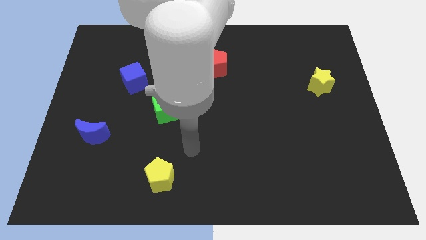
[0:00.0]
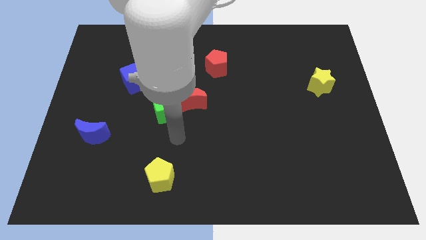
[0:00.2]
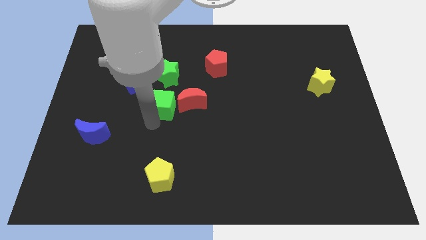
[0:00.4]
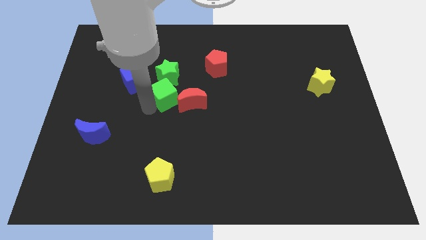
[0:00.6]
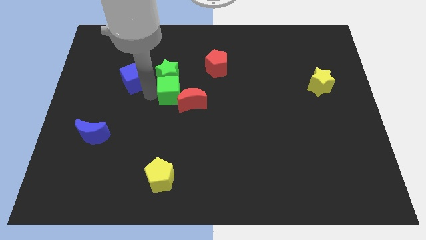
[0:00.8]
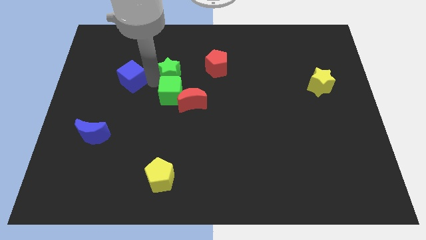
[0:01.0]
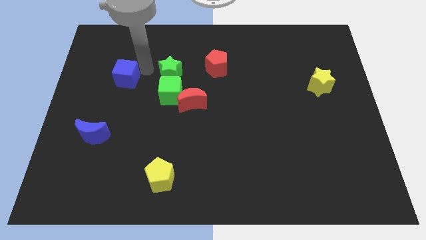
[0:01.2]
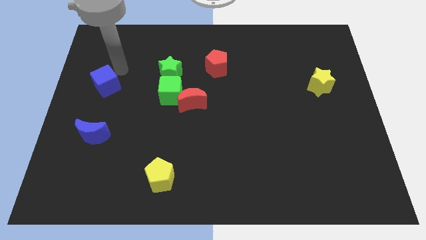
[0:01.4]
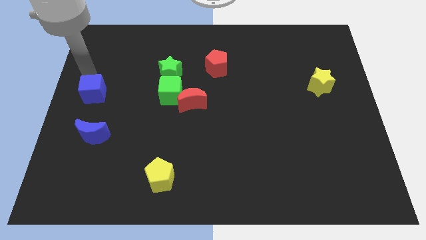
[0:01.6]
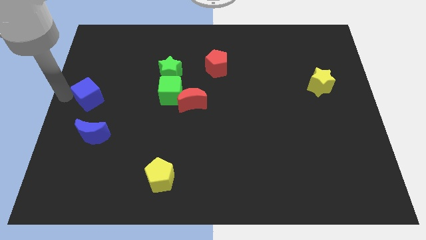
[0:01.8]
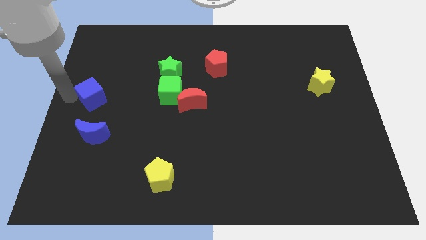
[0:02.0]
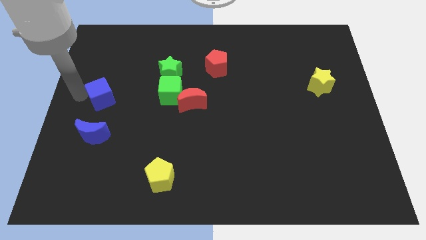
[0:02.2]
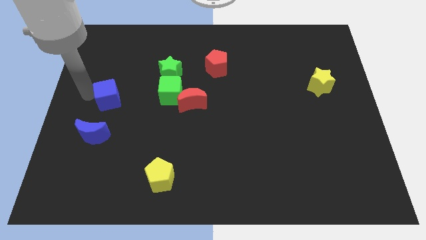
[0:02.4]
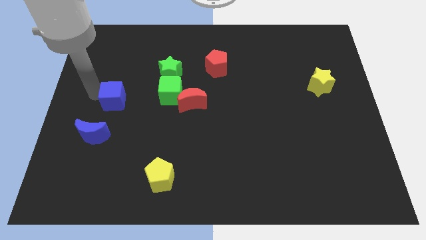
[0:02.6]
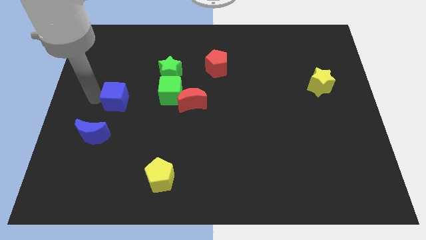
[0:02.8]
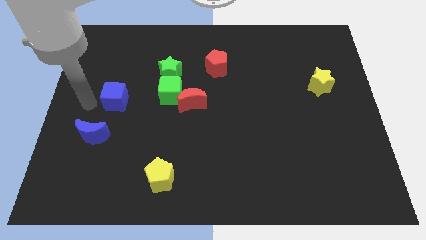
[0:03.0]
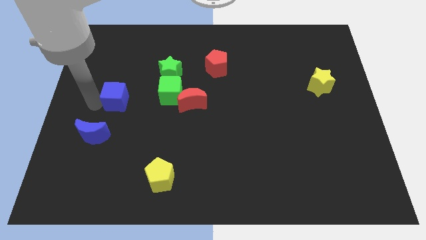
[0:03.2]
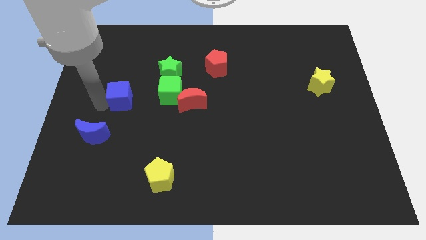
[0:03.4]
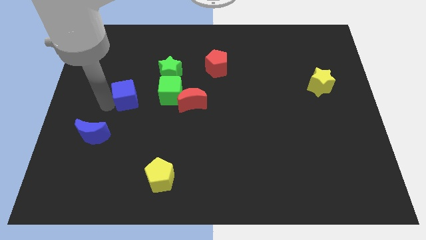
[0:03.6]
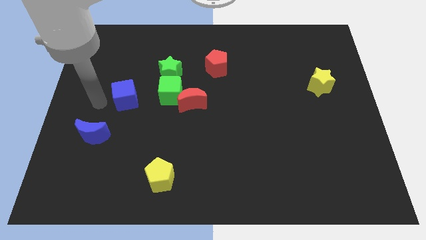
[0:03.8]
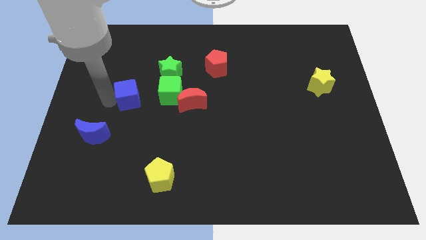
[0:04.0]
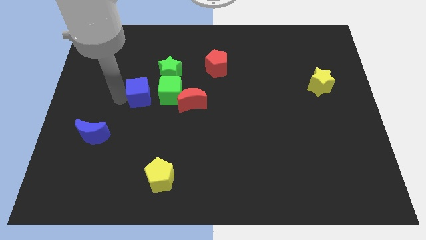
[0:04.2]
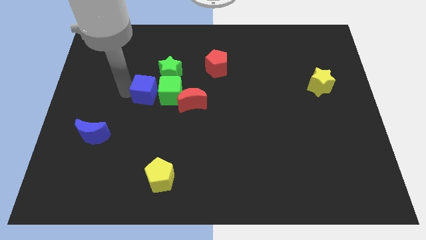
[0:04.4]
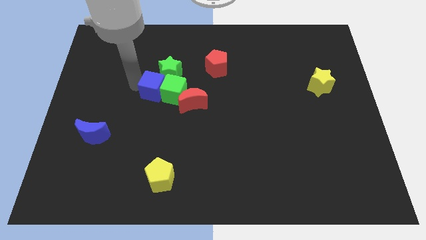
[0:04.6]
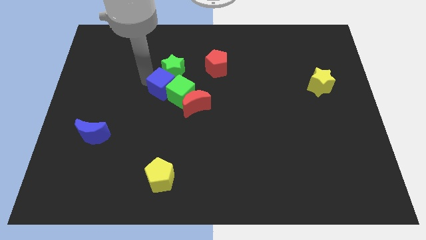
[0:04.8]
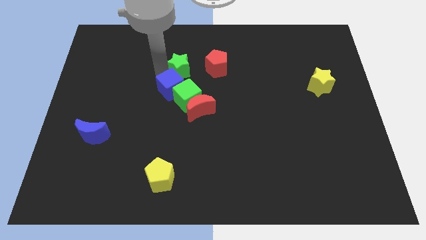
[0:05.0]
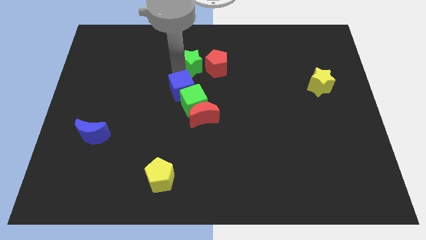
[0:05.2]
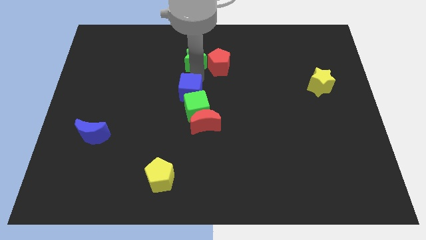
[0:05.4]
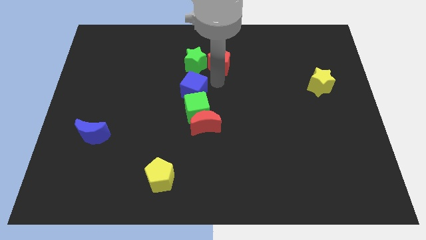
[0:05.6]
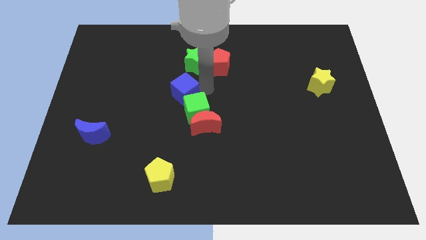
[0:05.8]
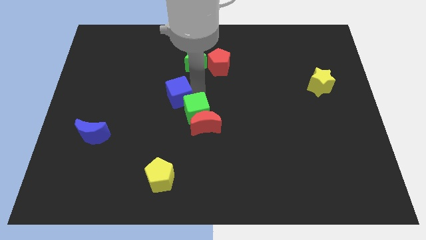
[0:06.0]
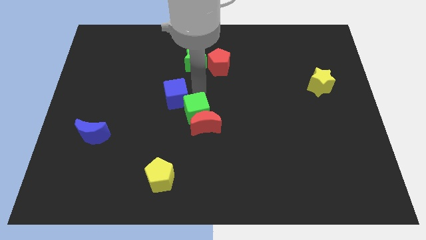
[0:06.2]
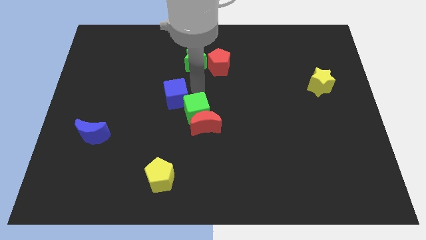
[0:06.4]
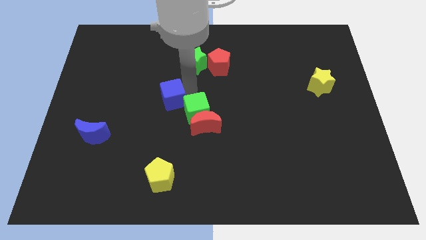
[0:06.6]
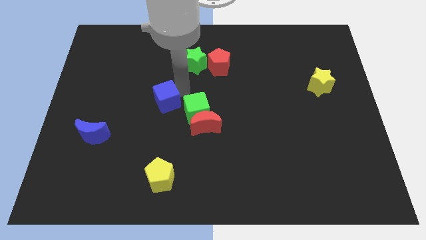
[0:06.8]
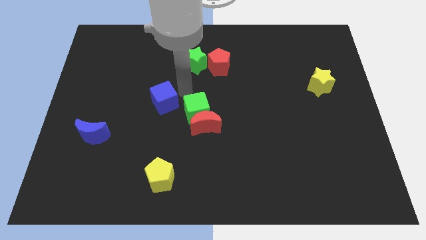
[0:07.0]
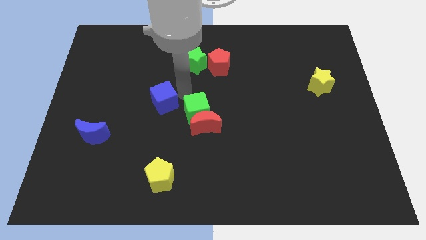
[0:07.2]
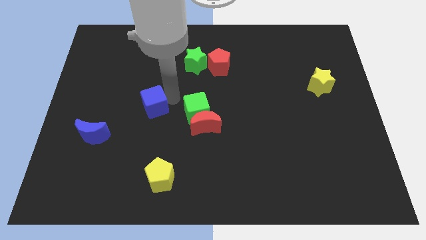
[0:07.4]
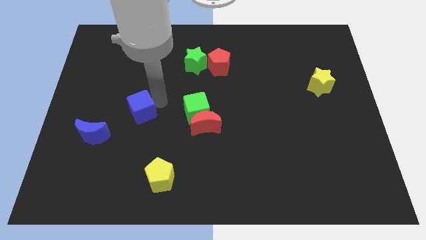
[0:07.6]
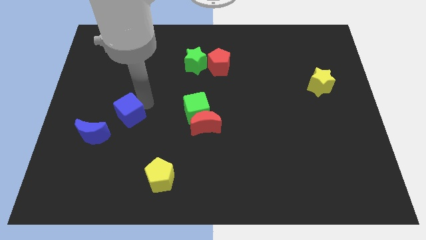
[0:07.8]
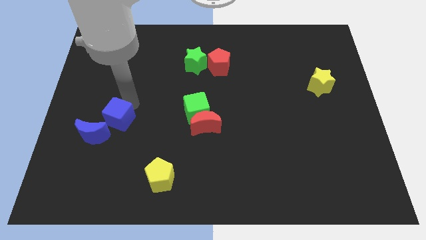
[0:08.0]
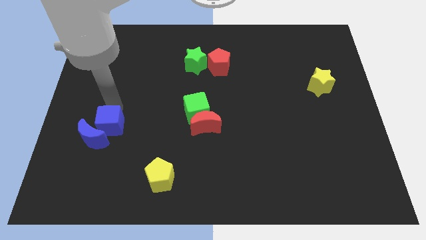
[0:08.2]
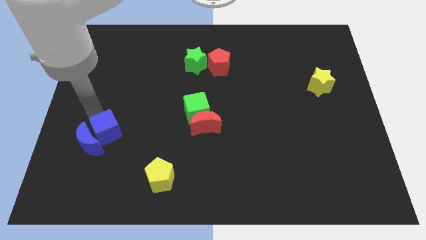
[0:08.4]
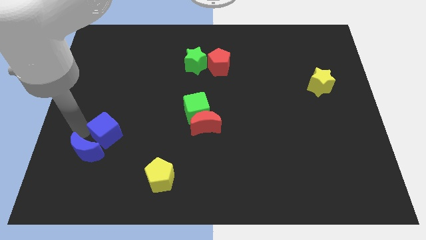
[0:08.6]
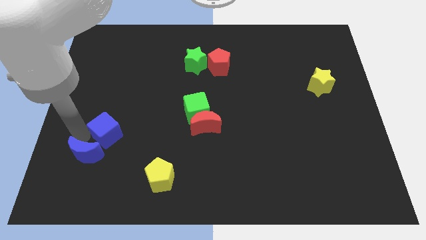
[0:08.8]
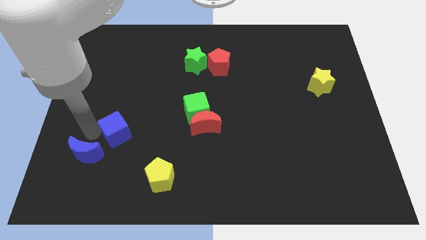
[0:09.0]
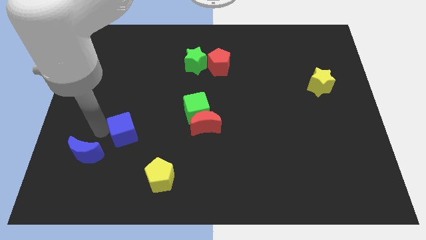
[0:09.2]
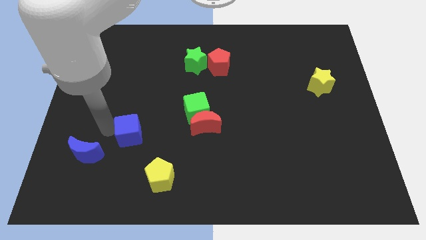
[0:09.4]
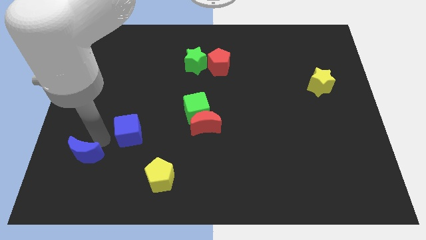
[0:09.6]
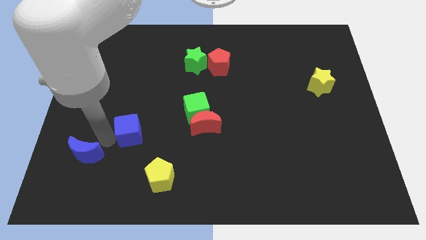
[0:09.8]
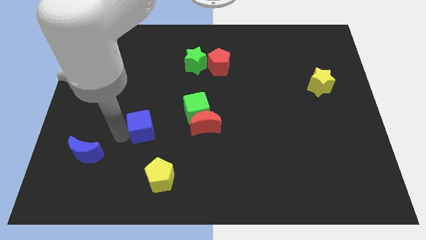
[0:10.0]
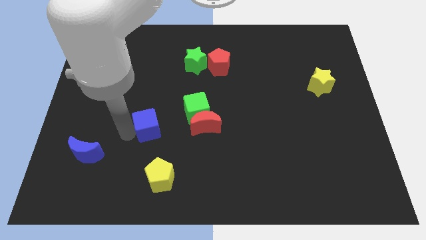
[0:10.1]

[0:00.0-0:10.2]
put the blue cube above the yellow pentagon

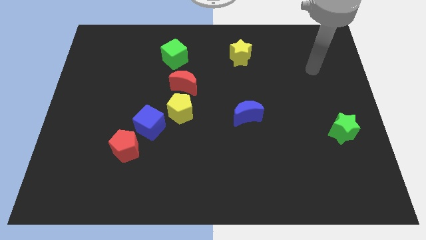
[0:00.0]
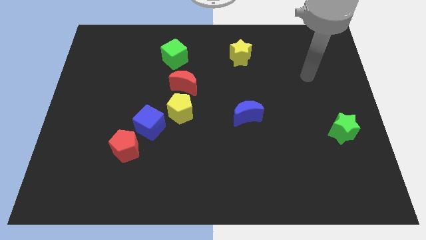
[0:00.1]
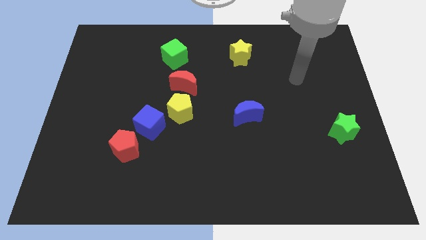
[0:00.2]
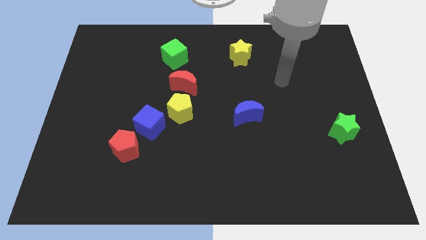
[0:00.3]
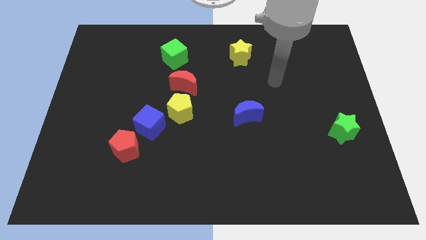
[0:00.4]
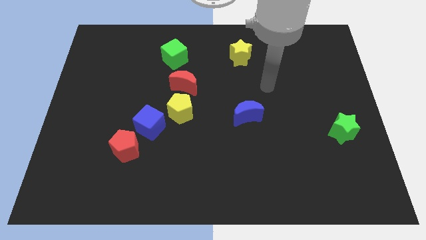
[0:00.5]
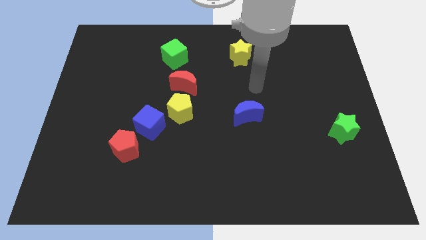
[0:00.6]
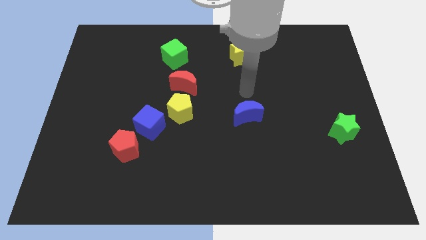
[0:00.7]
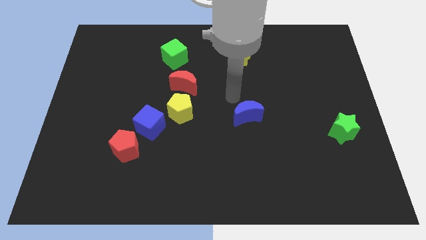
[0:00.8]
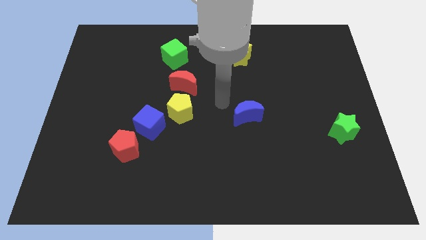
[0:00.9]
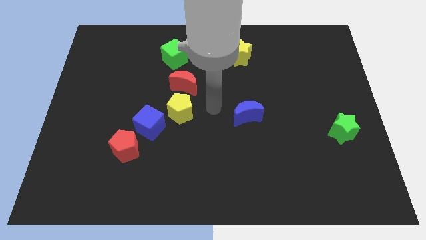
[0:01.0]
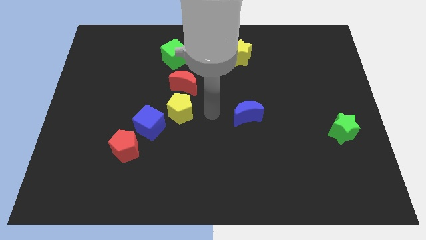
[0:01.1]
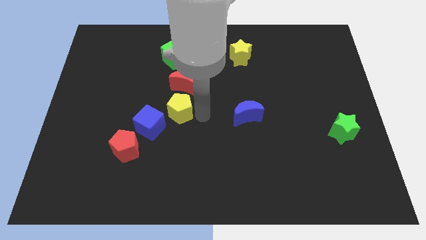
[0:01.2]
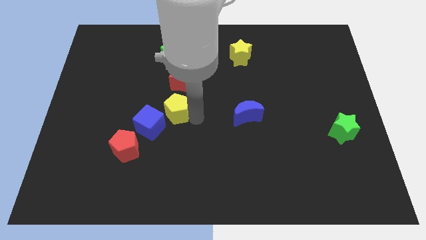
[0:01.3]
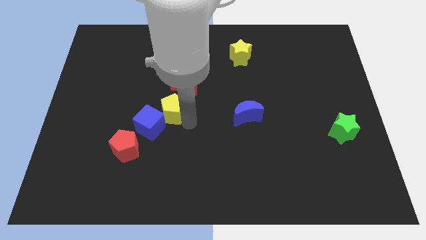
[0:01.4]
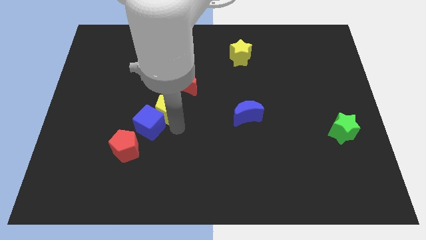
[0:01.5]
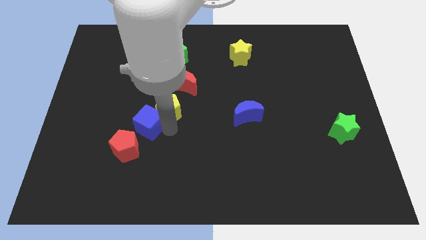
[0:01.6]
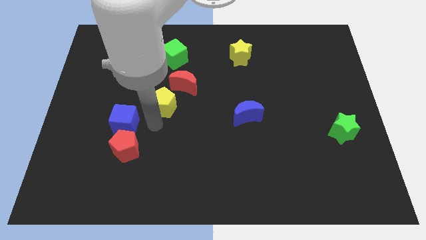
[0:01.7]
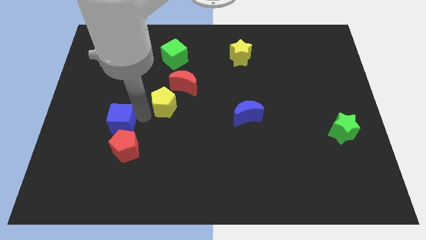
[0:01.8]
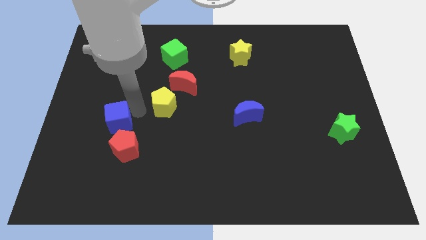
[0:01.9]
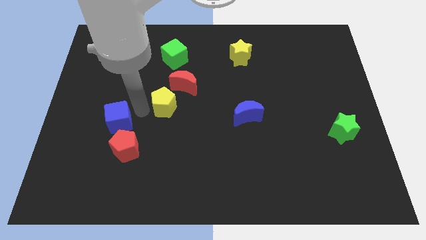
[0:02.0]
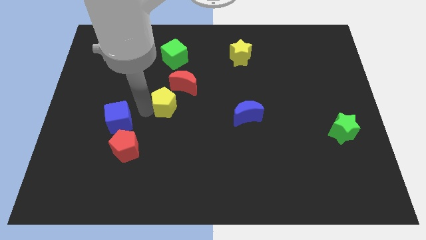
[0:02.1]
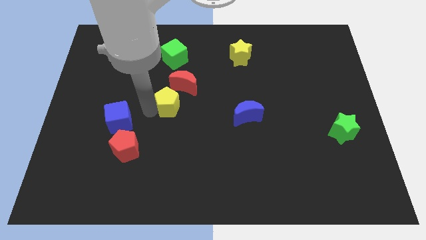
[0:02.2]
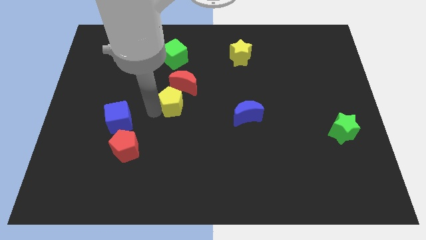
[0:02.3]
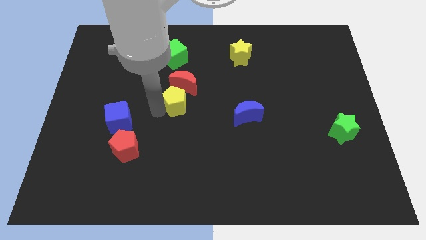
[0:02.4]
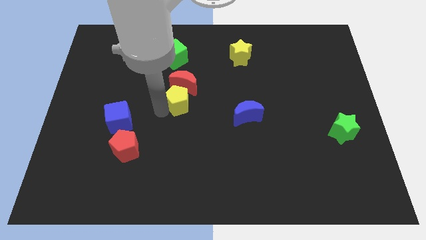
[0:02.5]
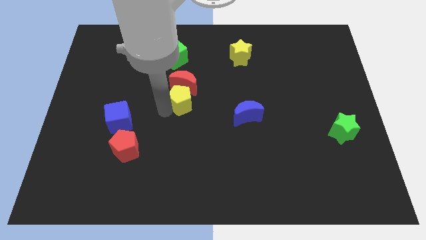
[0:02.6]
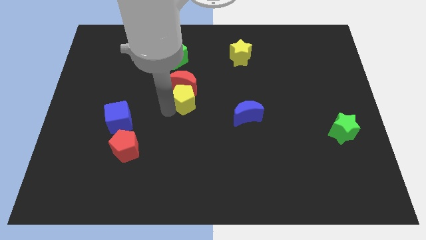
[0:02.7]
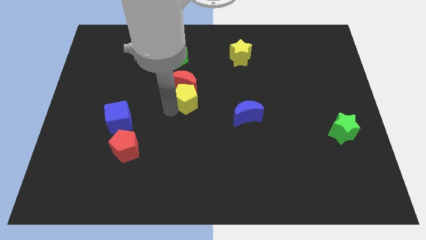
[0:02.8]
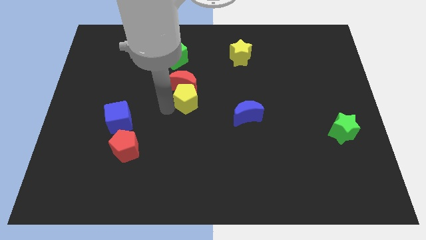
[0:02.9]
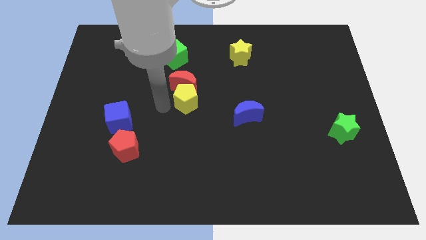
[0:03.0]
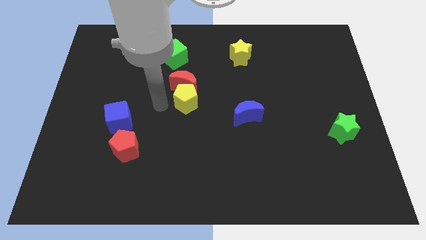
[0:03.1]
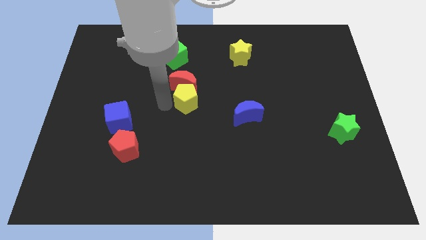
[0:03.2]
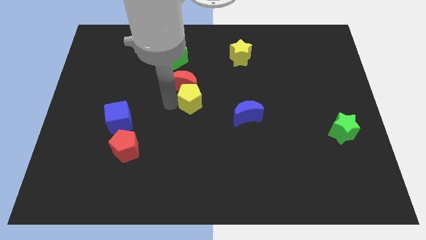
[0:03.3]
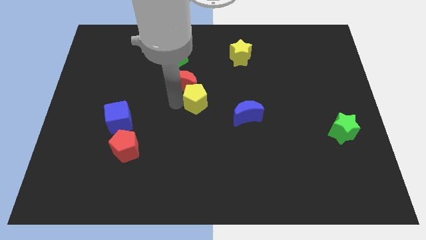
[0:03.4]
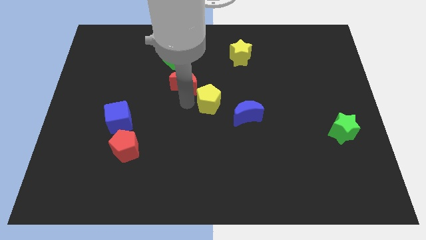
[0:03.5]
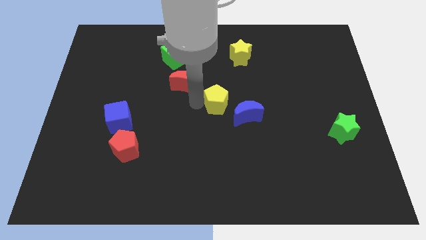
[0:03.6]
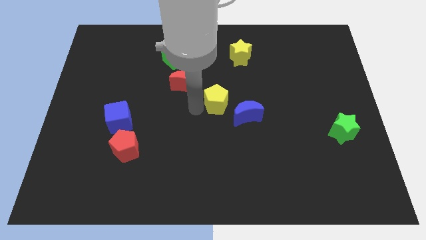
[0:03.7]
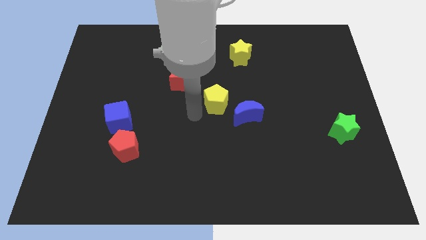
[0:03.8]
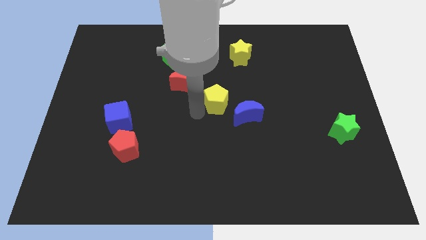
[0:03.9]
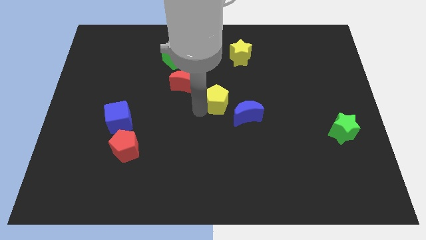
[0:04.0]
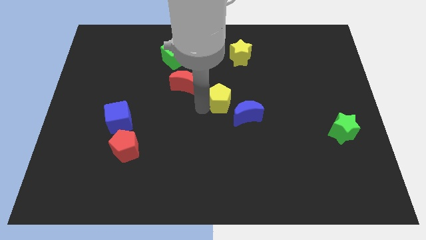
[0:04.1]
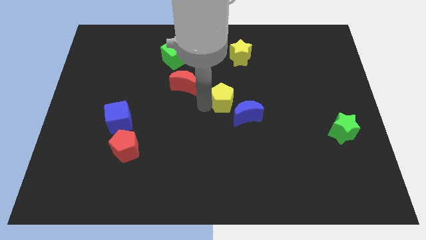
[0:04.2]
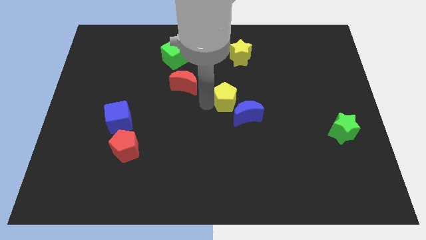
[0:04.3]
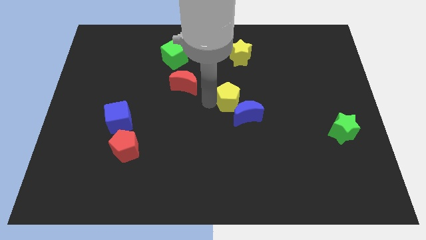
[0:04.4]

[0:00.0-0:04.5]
move the yellow pentagon below the yellow star
